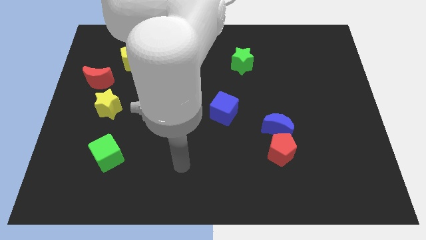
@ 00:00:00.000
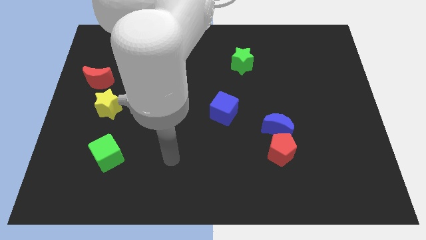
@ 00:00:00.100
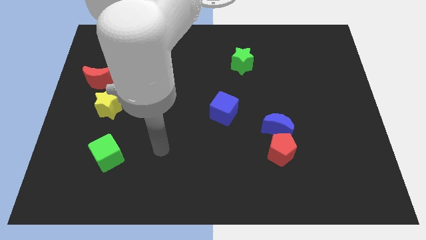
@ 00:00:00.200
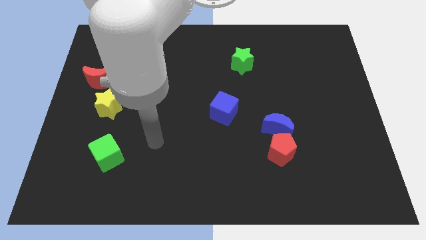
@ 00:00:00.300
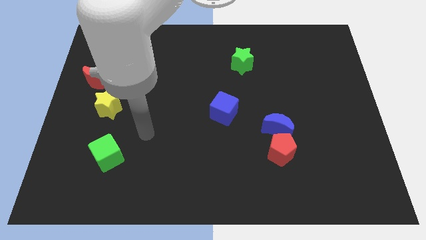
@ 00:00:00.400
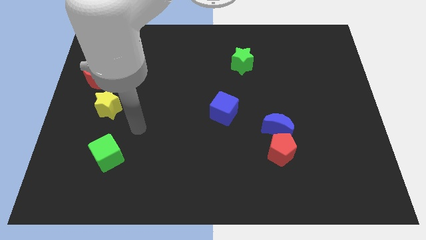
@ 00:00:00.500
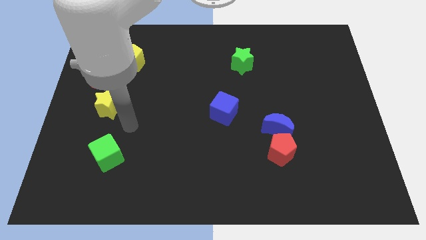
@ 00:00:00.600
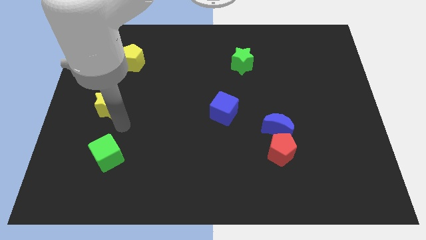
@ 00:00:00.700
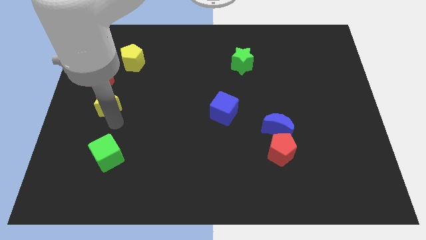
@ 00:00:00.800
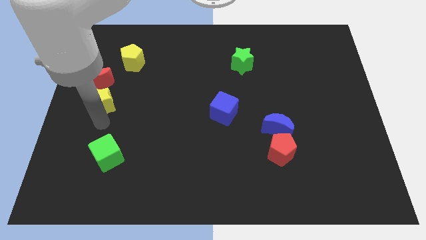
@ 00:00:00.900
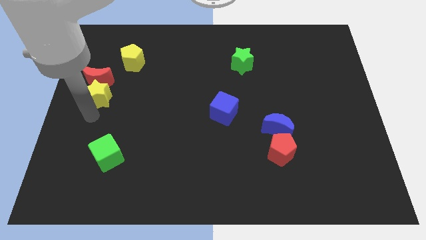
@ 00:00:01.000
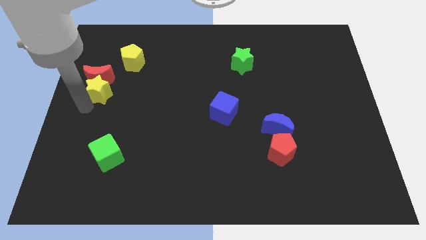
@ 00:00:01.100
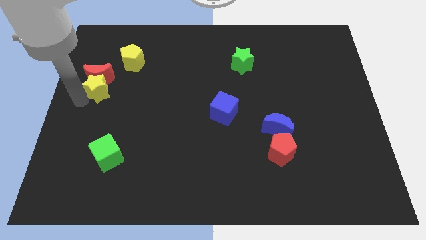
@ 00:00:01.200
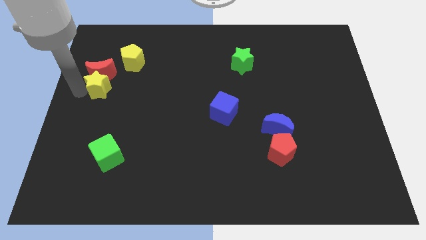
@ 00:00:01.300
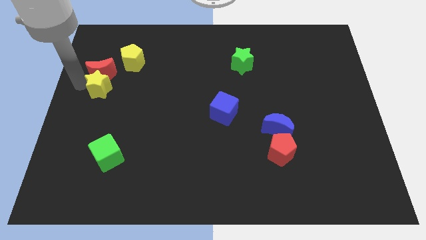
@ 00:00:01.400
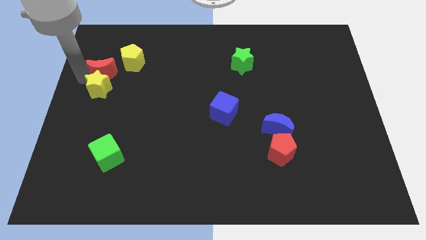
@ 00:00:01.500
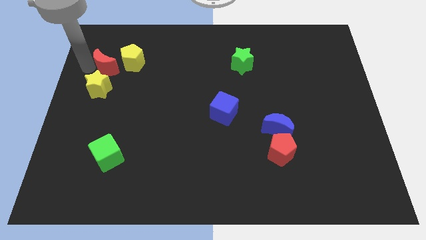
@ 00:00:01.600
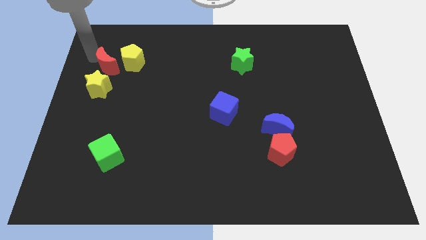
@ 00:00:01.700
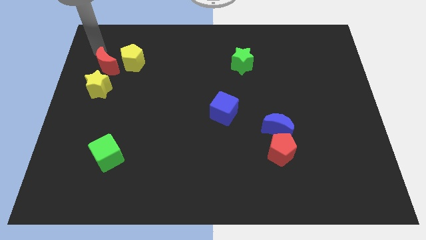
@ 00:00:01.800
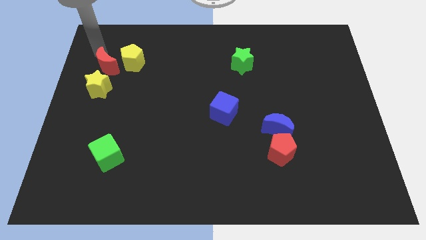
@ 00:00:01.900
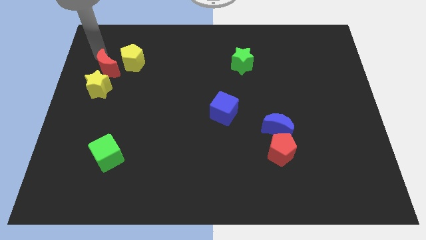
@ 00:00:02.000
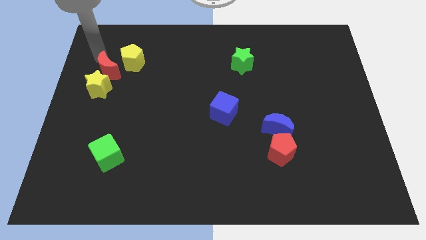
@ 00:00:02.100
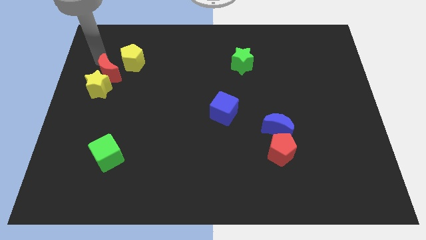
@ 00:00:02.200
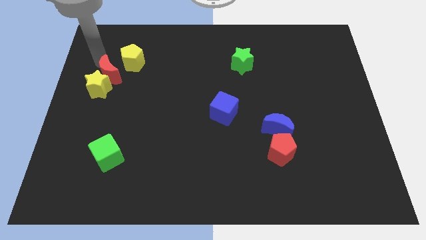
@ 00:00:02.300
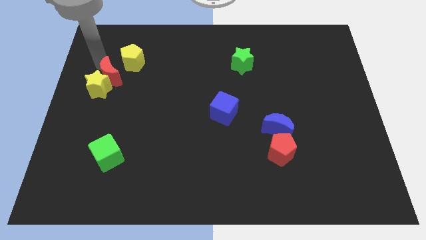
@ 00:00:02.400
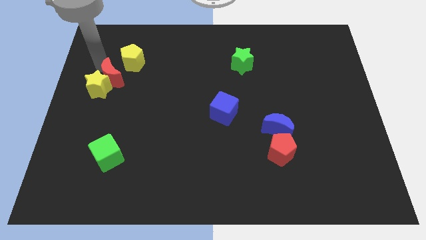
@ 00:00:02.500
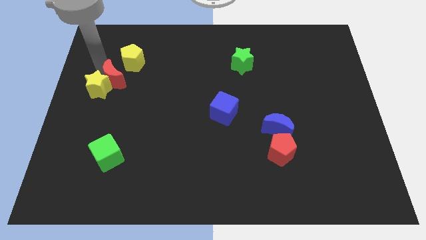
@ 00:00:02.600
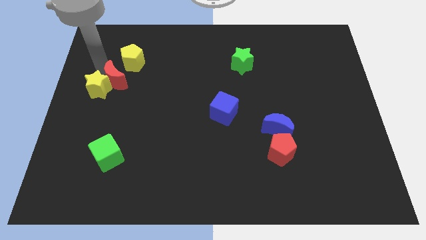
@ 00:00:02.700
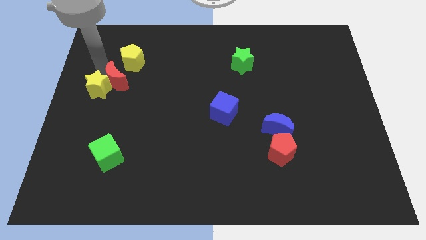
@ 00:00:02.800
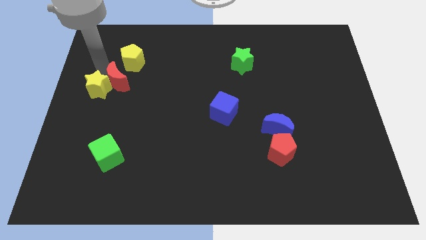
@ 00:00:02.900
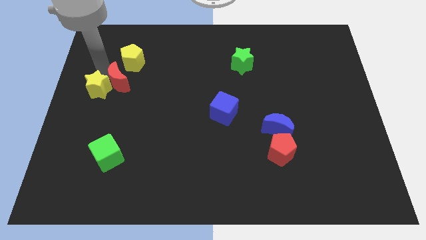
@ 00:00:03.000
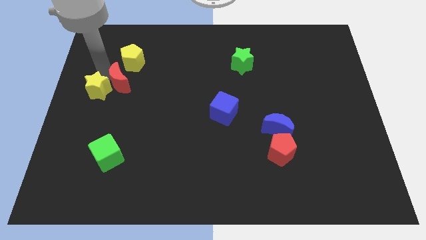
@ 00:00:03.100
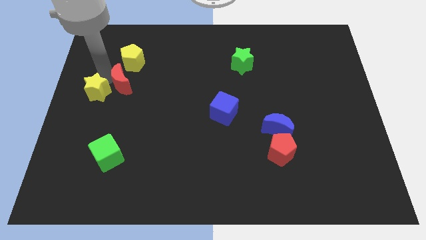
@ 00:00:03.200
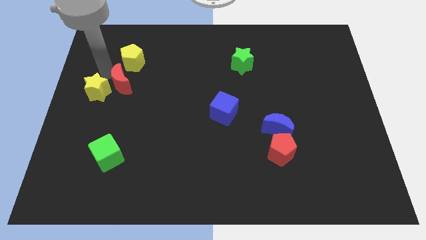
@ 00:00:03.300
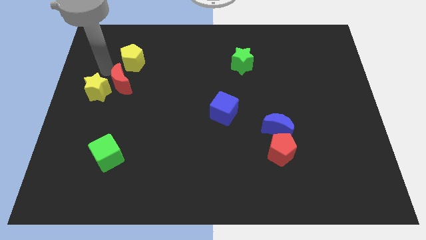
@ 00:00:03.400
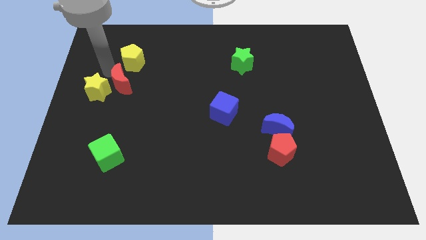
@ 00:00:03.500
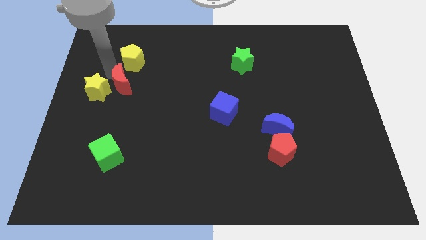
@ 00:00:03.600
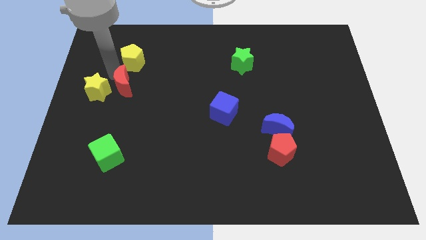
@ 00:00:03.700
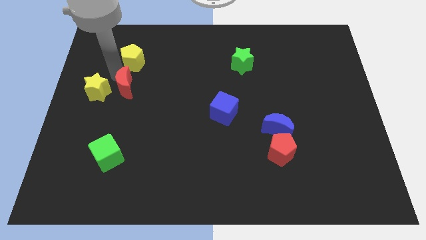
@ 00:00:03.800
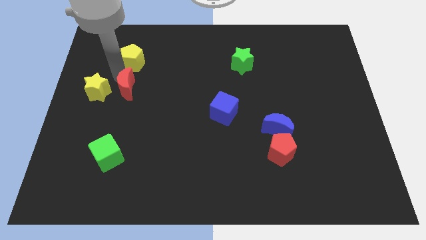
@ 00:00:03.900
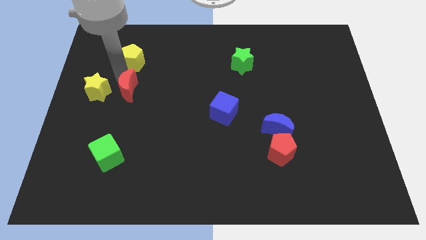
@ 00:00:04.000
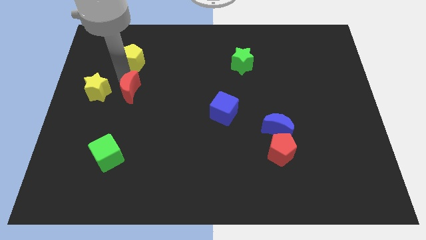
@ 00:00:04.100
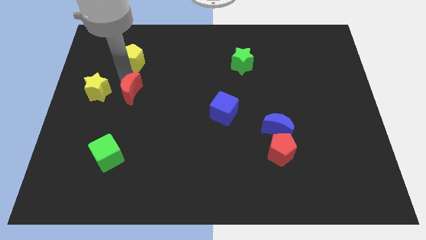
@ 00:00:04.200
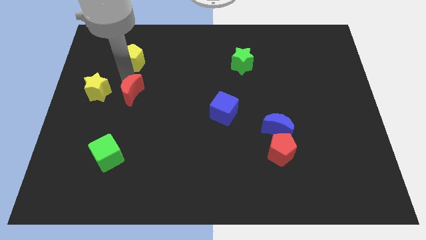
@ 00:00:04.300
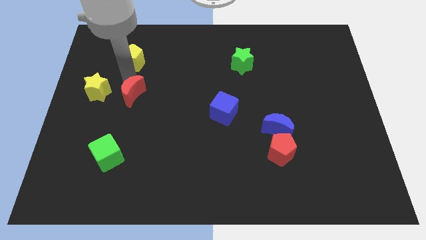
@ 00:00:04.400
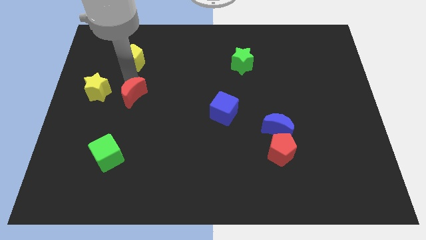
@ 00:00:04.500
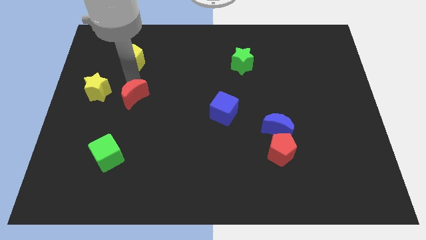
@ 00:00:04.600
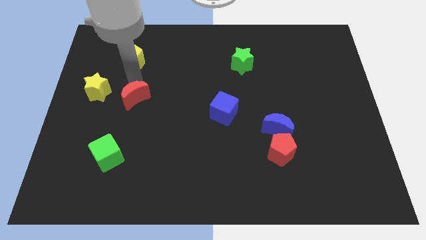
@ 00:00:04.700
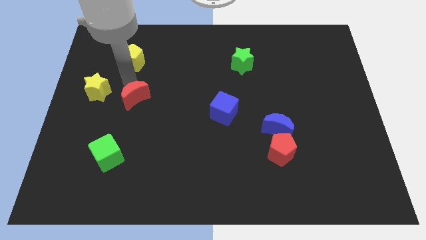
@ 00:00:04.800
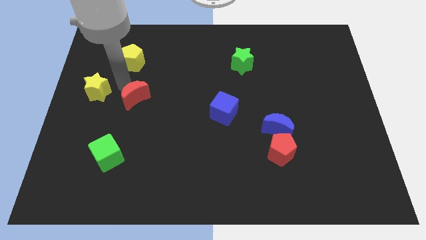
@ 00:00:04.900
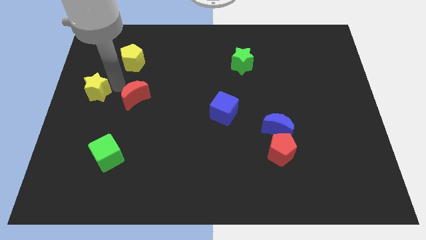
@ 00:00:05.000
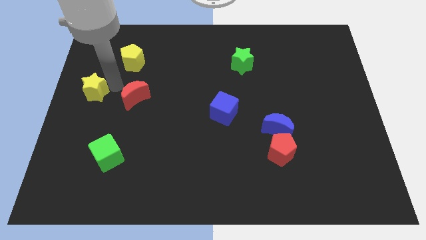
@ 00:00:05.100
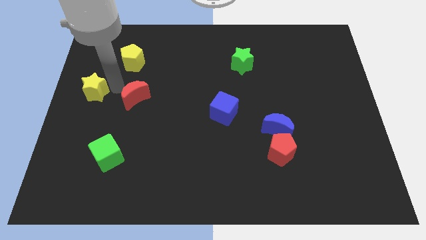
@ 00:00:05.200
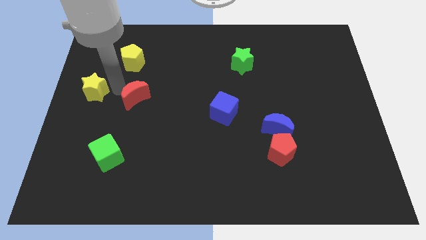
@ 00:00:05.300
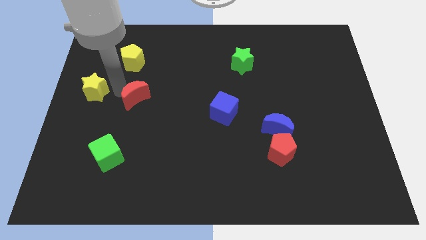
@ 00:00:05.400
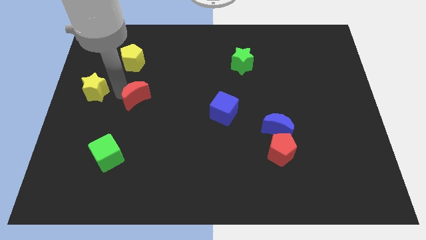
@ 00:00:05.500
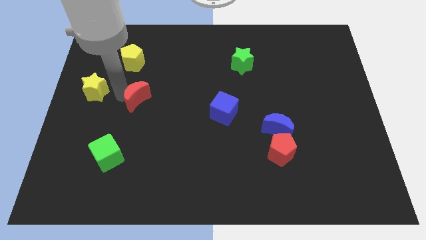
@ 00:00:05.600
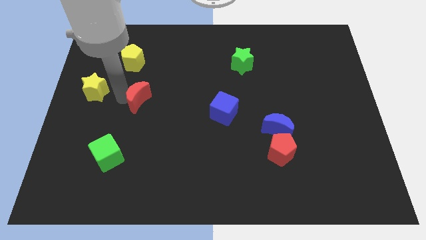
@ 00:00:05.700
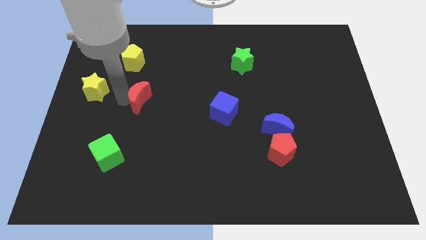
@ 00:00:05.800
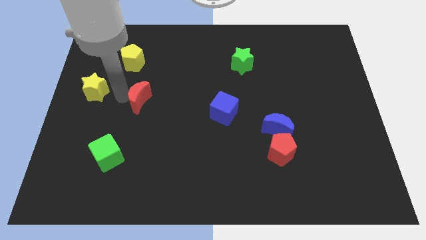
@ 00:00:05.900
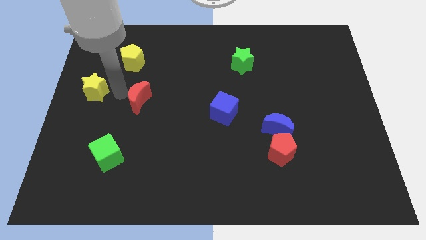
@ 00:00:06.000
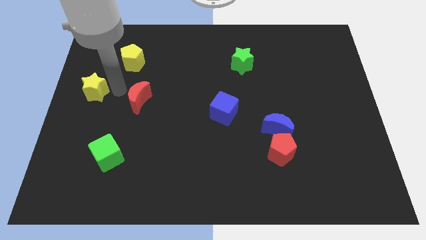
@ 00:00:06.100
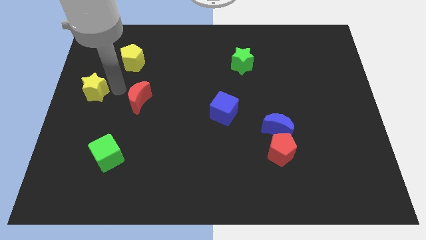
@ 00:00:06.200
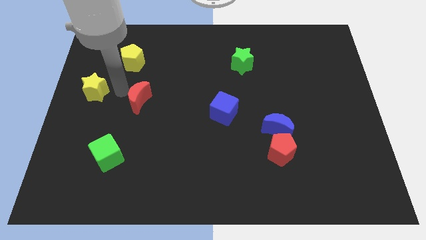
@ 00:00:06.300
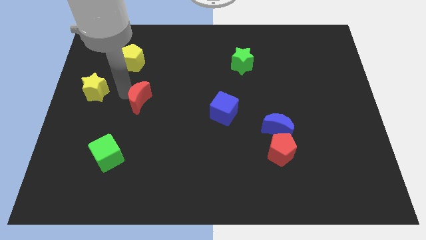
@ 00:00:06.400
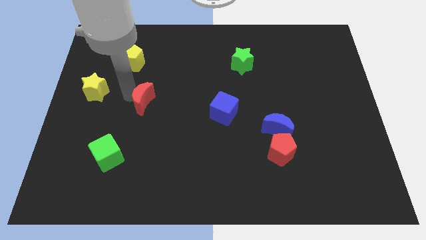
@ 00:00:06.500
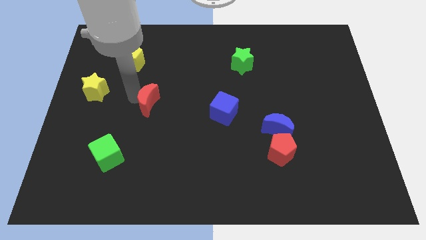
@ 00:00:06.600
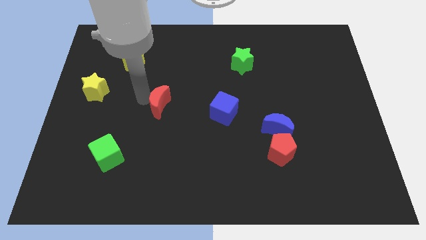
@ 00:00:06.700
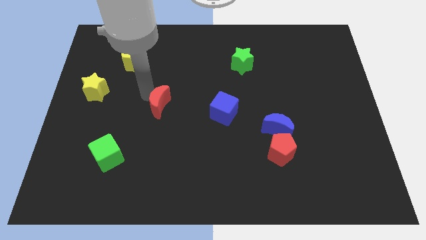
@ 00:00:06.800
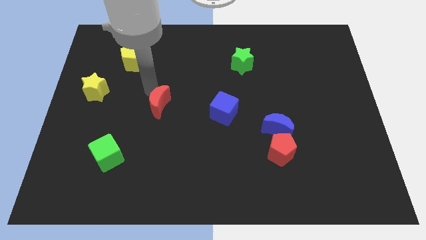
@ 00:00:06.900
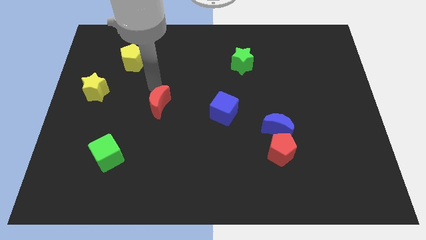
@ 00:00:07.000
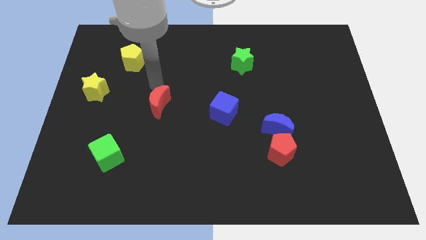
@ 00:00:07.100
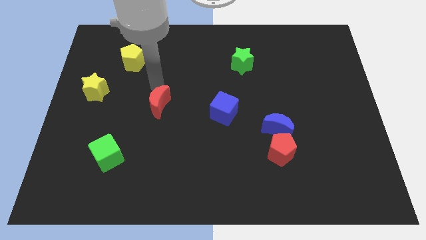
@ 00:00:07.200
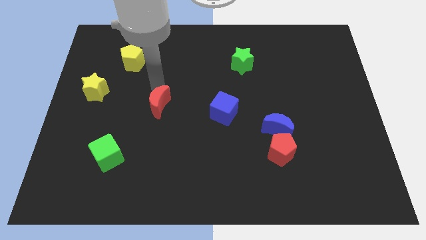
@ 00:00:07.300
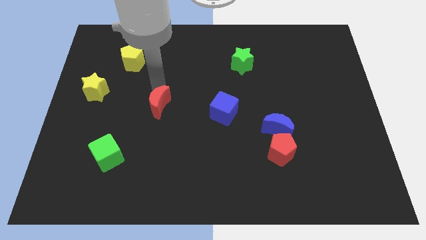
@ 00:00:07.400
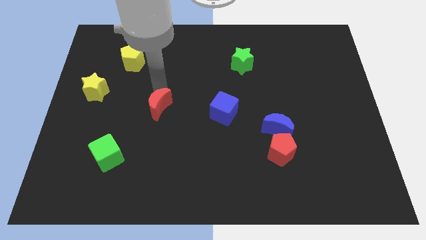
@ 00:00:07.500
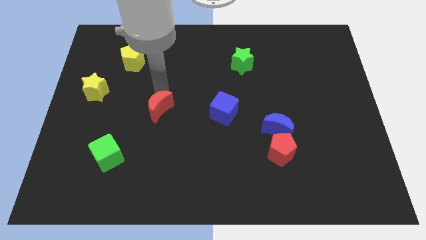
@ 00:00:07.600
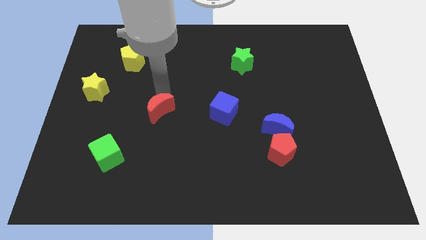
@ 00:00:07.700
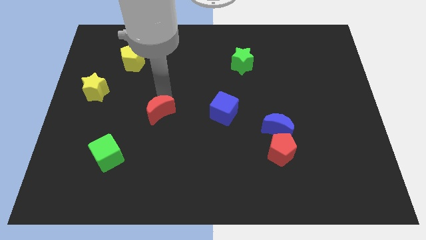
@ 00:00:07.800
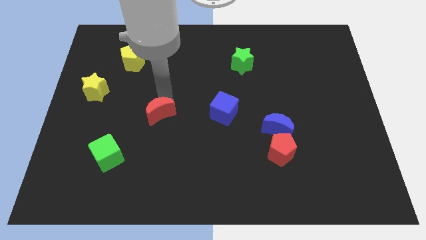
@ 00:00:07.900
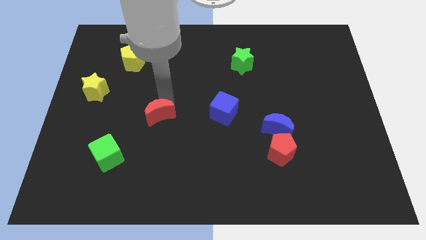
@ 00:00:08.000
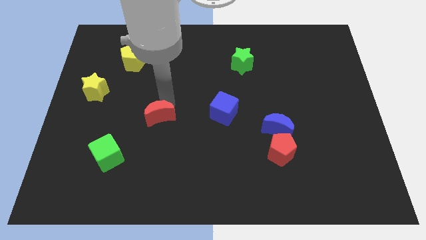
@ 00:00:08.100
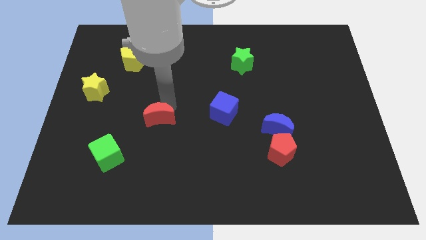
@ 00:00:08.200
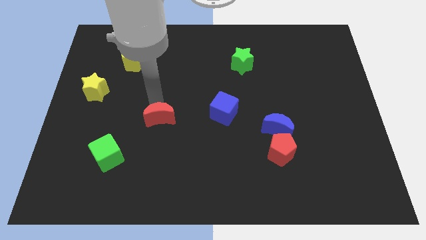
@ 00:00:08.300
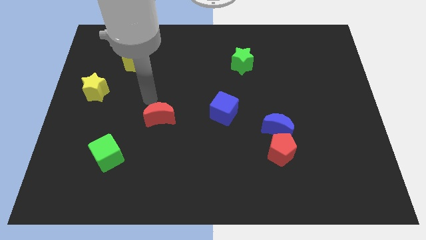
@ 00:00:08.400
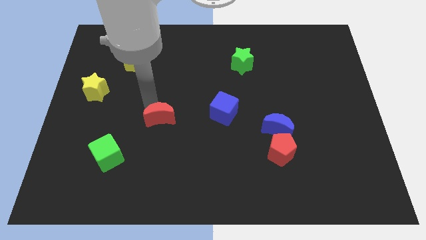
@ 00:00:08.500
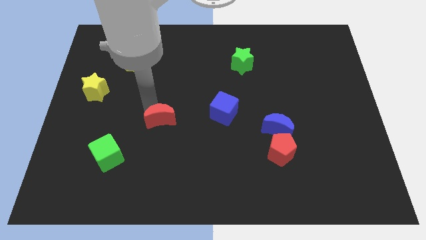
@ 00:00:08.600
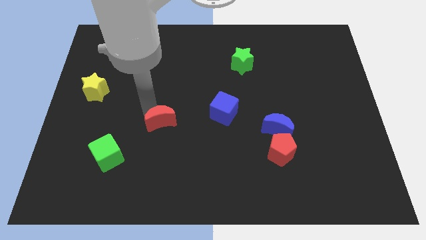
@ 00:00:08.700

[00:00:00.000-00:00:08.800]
push the red moon diagonally down and right
